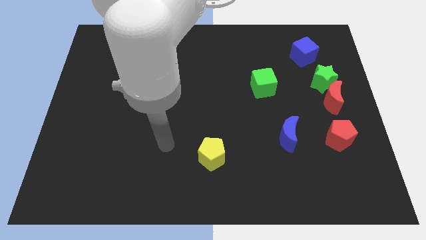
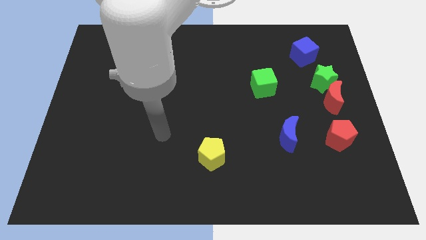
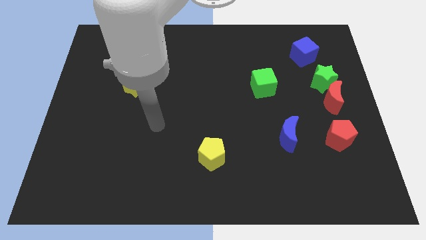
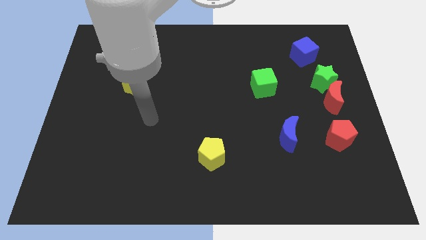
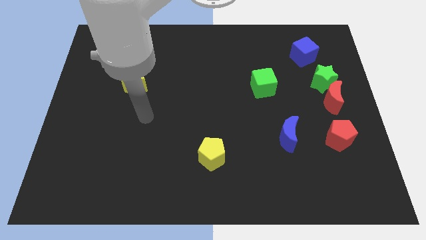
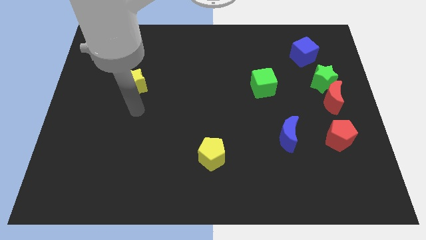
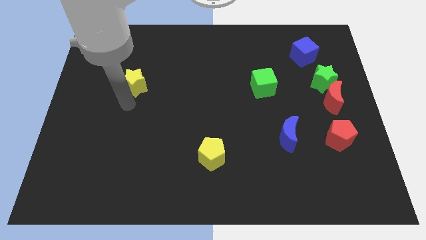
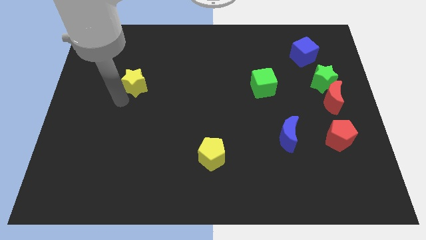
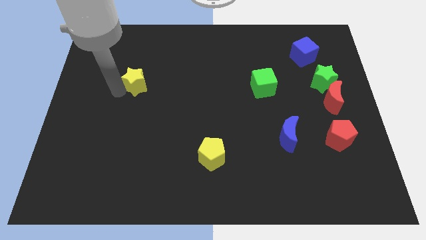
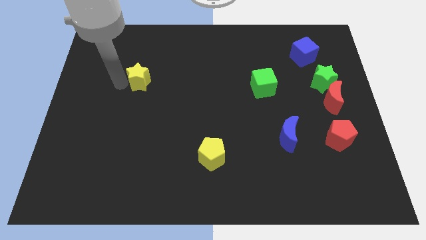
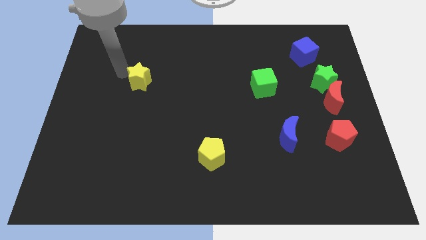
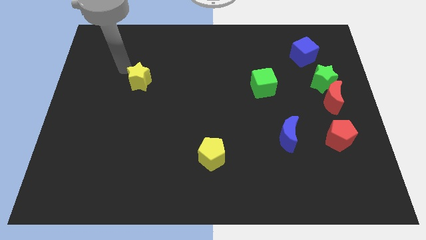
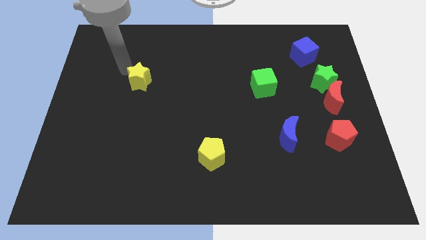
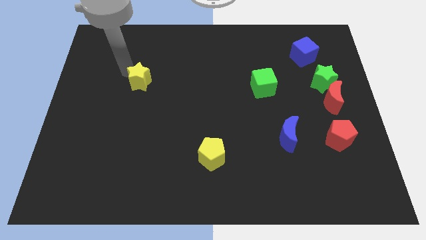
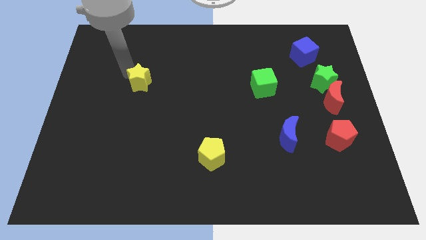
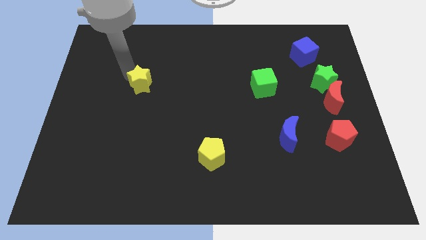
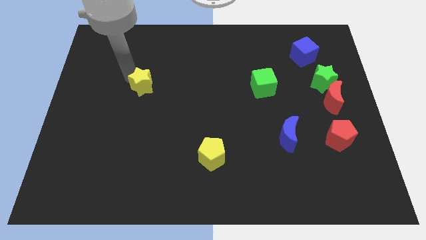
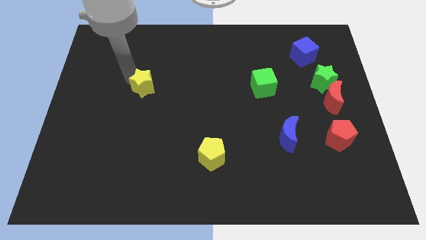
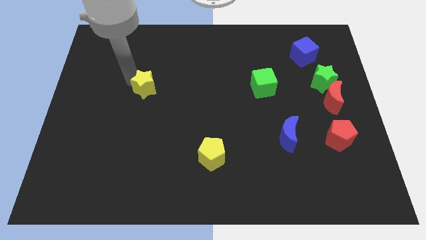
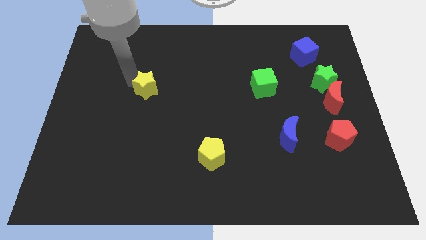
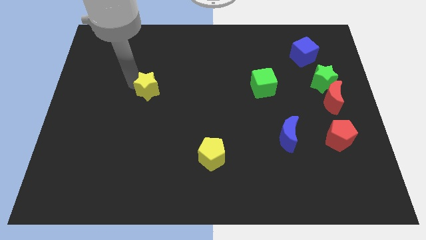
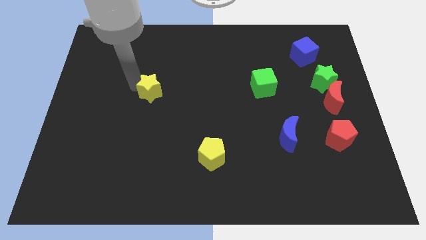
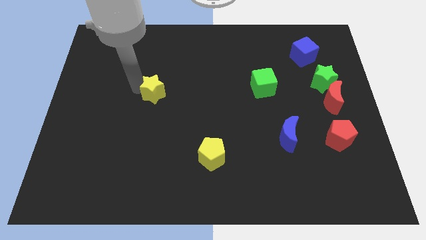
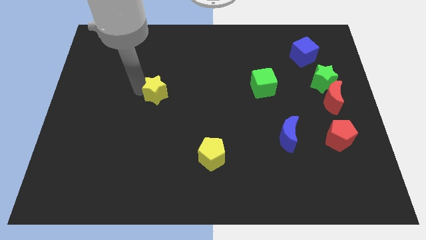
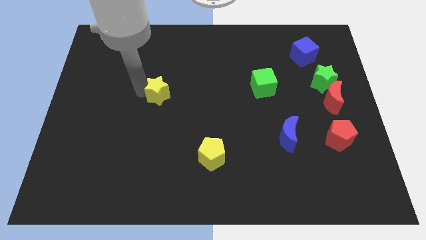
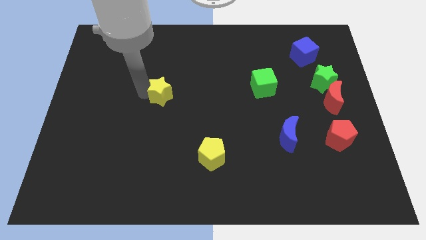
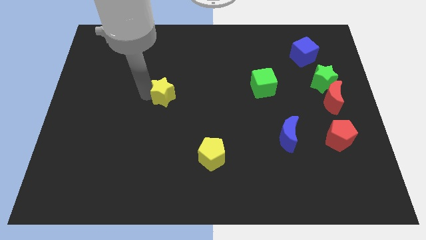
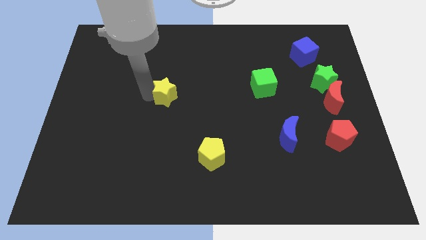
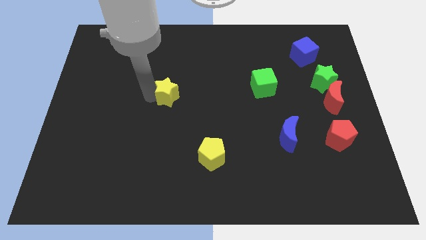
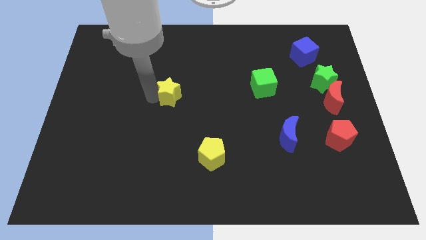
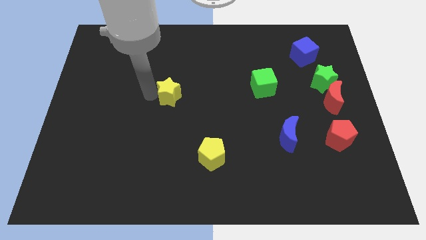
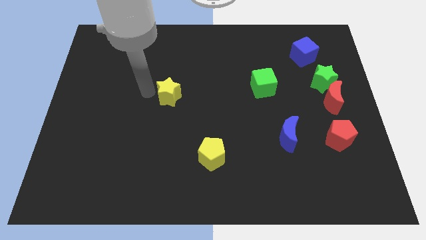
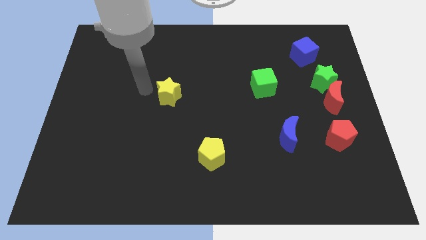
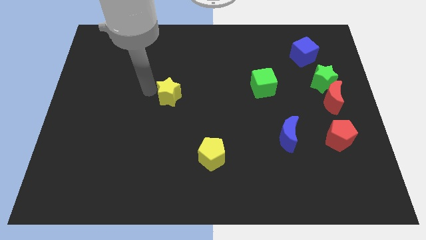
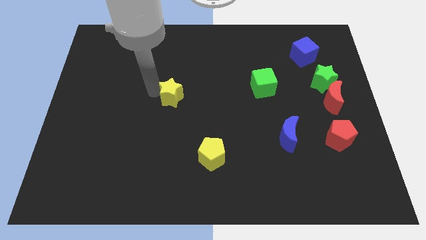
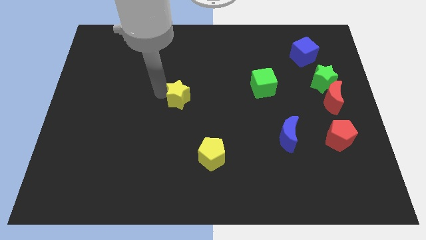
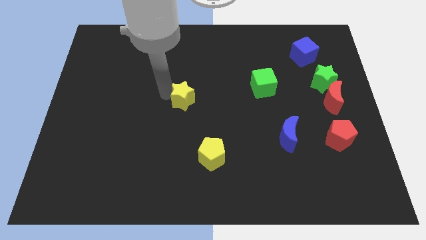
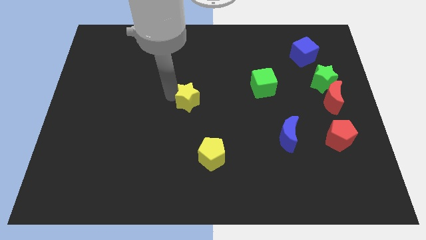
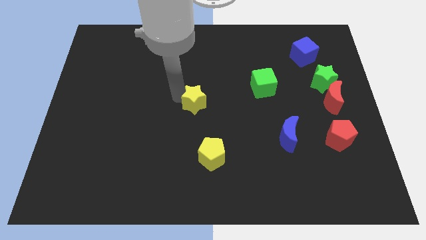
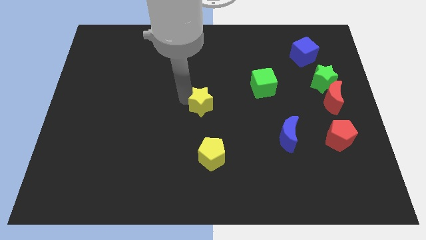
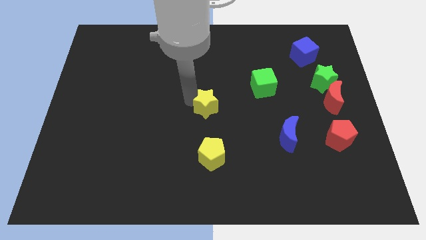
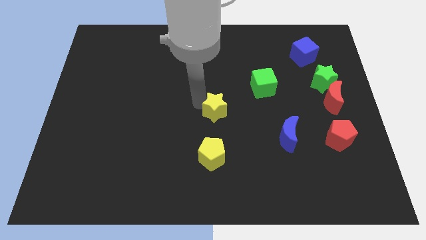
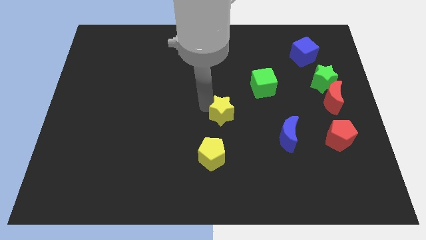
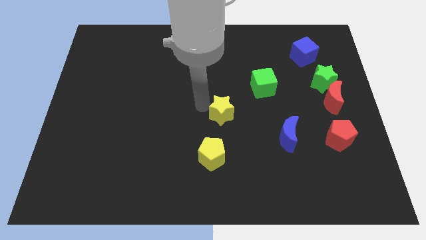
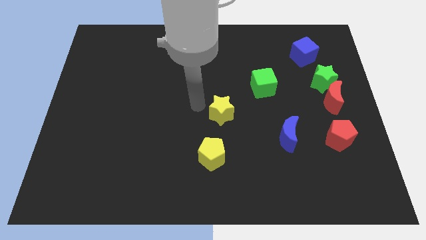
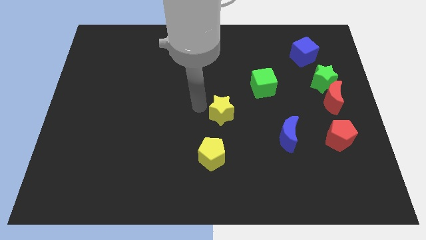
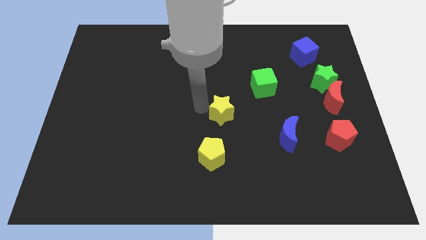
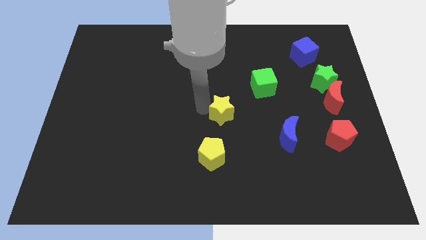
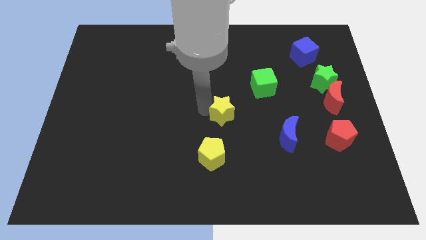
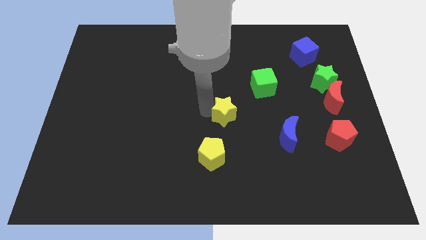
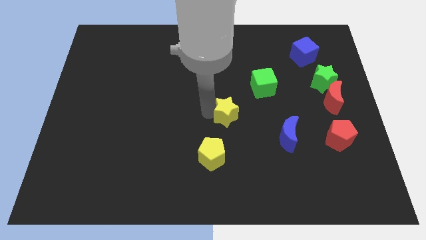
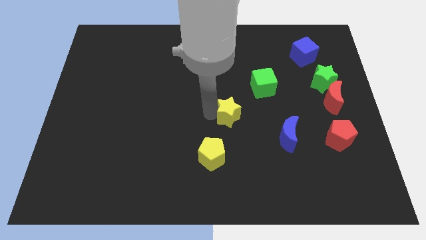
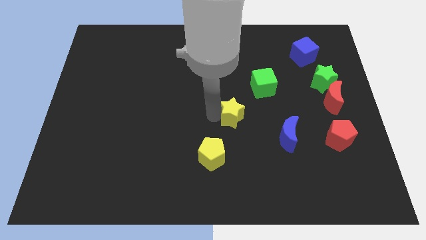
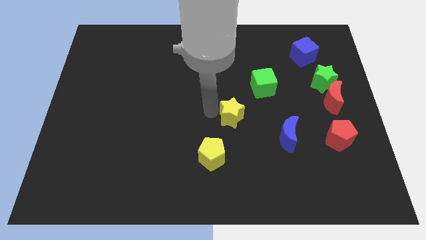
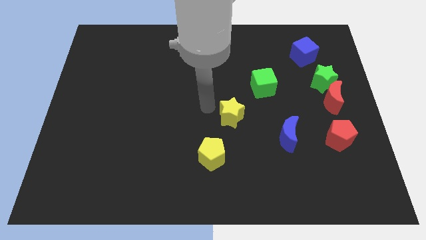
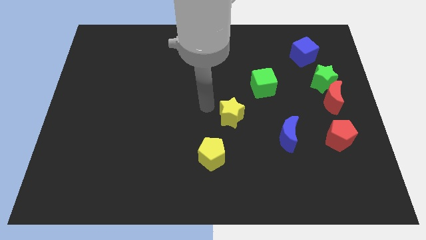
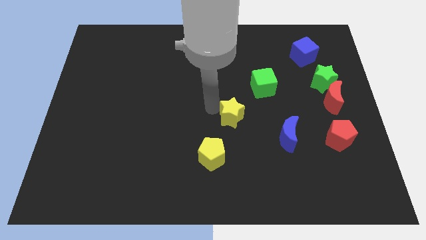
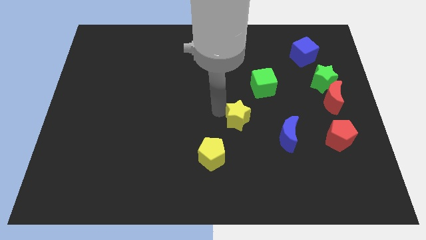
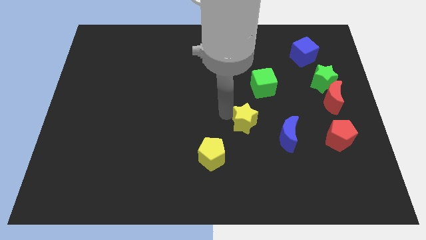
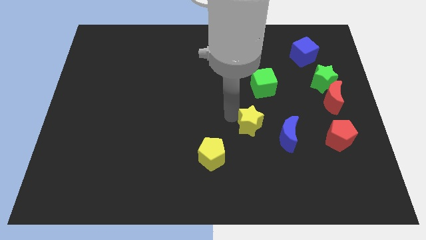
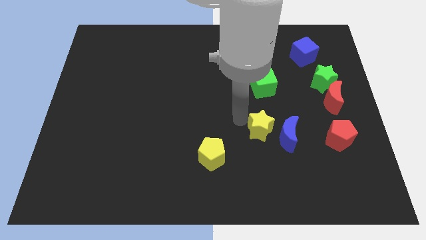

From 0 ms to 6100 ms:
push the yellow star towards the blue moon

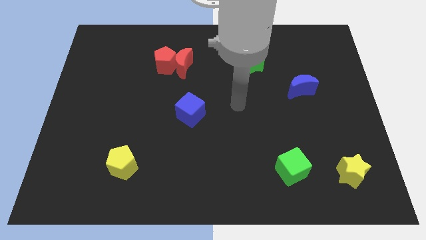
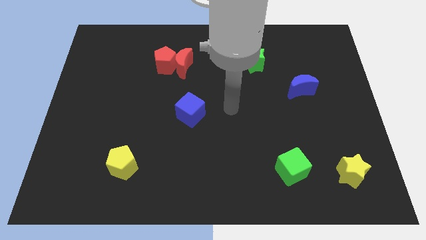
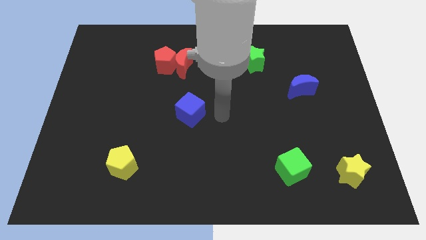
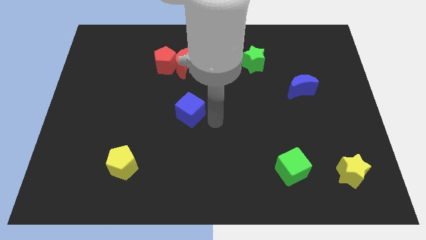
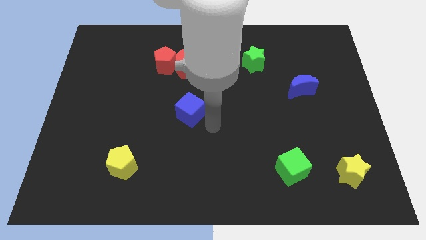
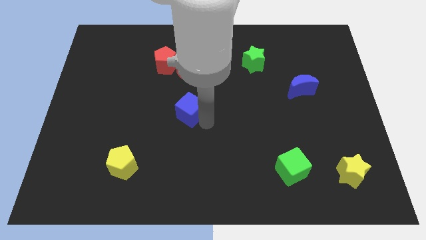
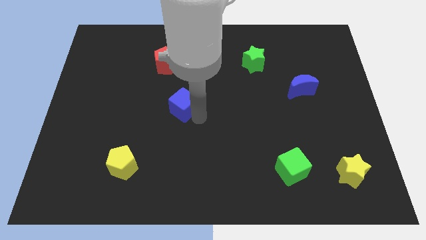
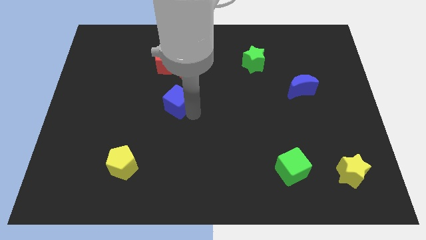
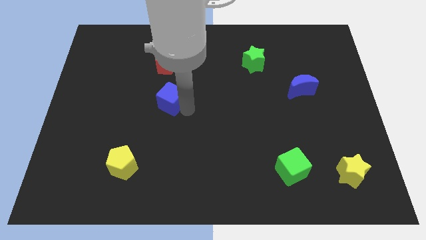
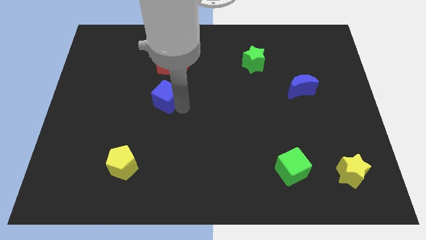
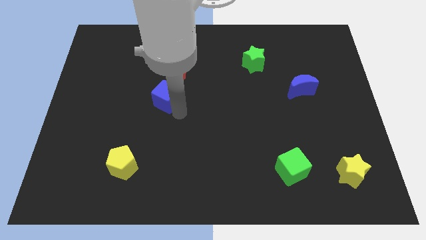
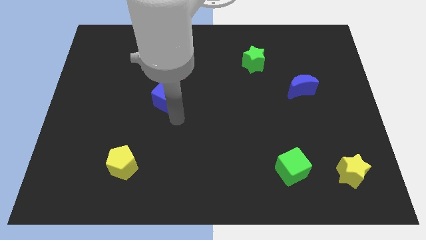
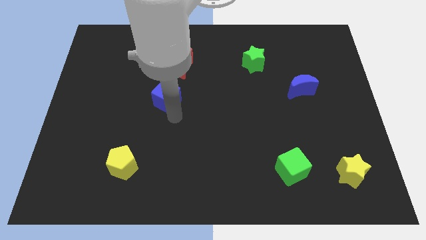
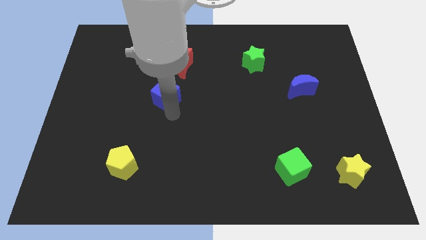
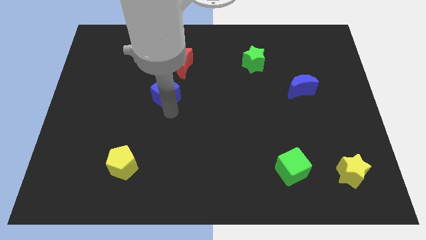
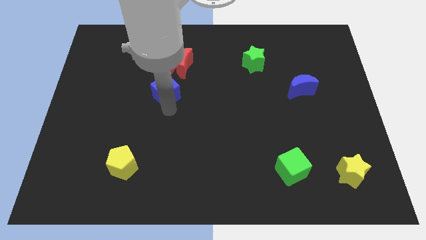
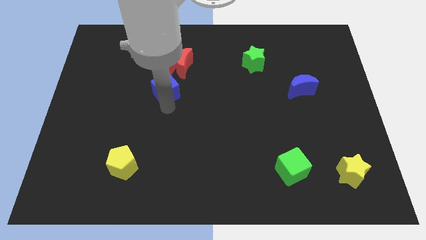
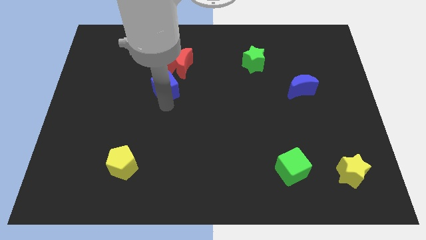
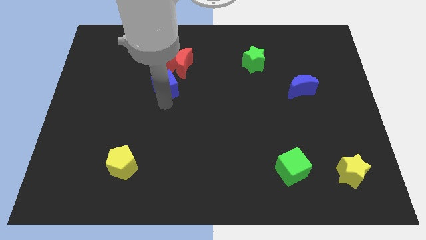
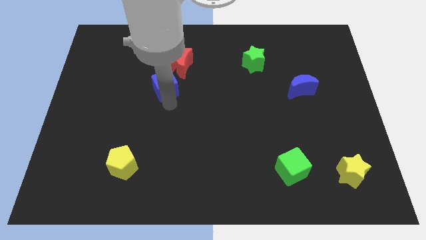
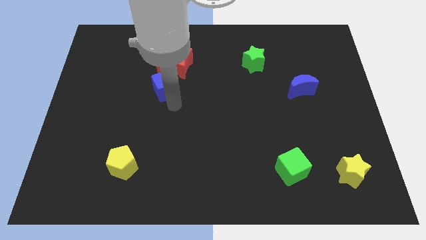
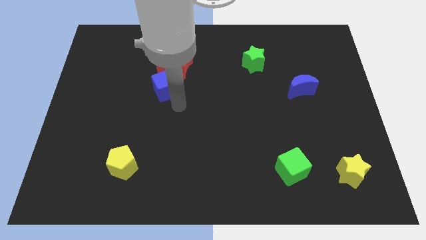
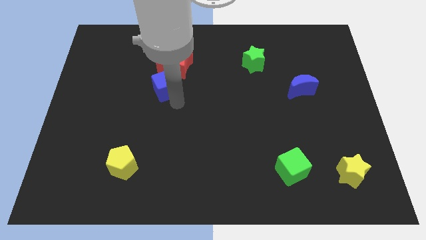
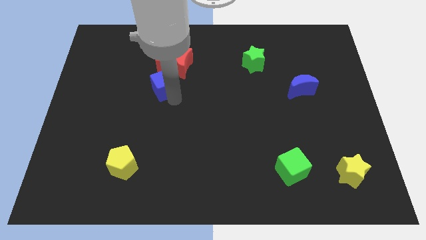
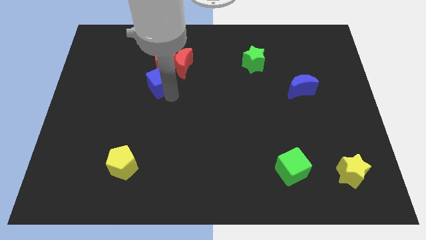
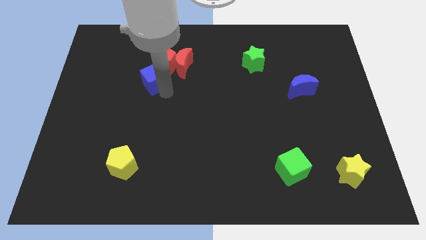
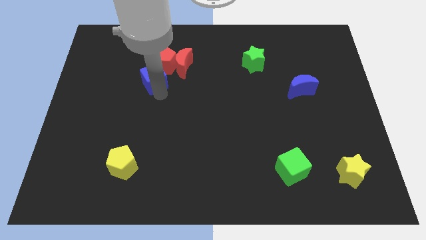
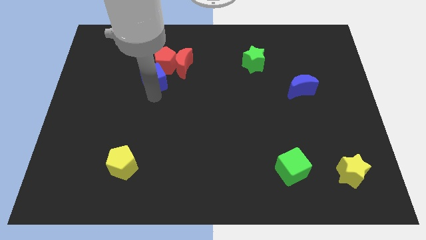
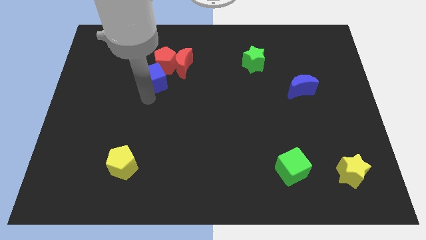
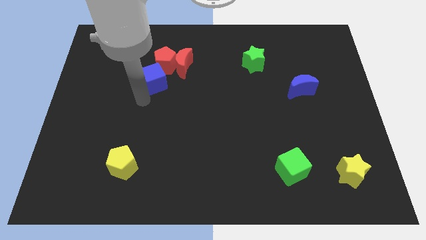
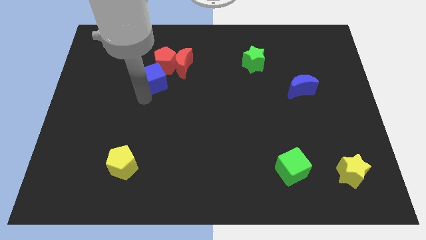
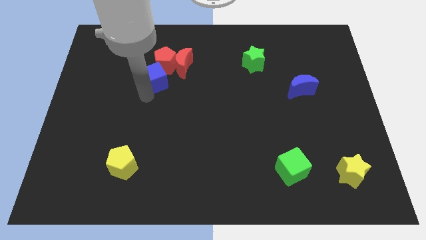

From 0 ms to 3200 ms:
put the blue cube next to the red pentagon
